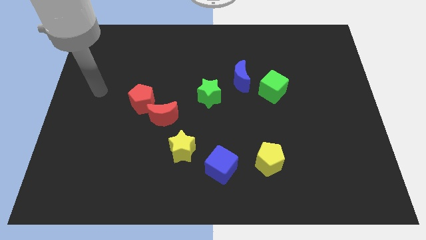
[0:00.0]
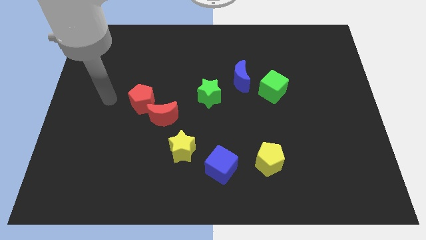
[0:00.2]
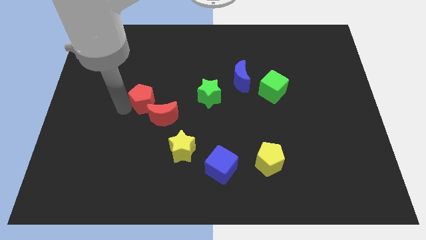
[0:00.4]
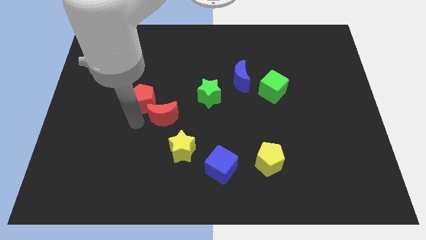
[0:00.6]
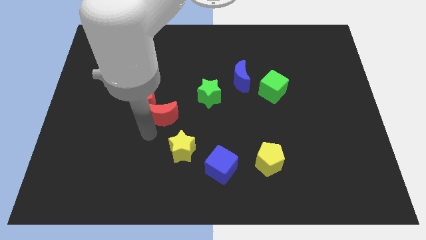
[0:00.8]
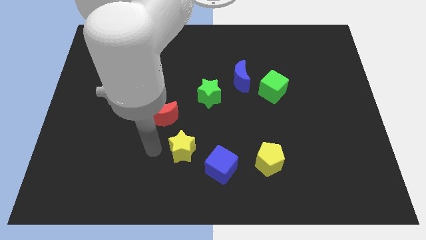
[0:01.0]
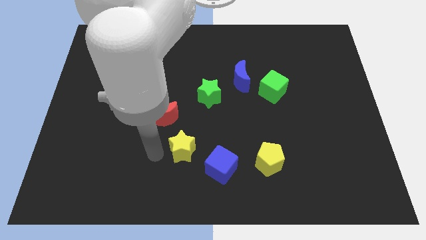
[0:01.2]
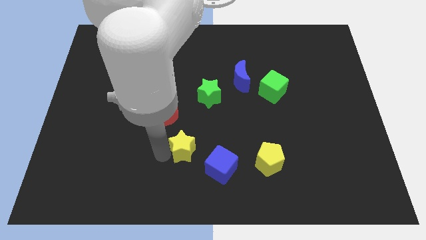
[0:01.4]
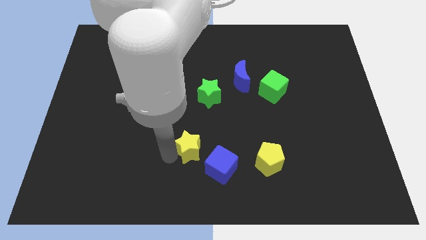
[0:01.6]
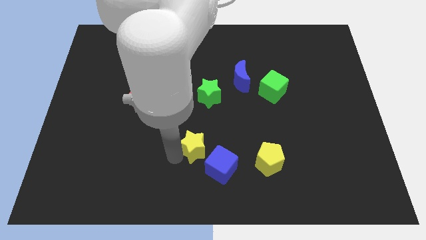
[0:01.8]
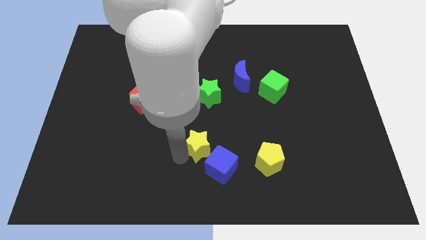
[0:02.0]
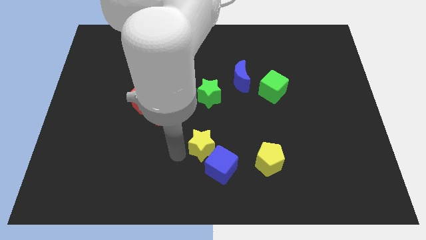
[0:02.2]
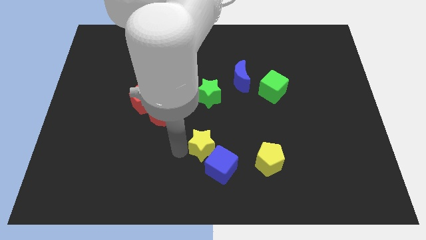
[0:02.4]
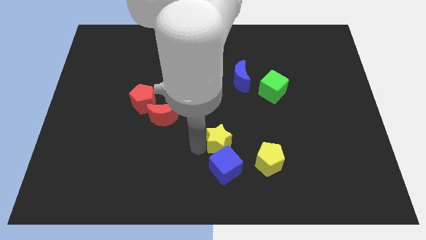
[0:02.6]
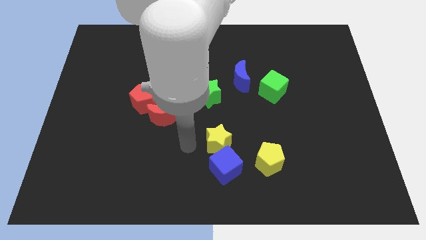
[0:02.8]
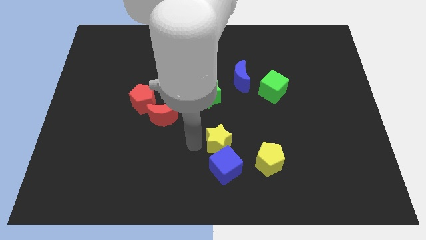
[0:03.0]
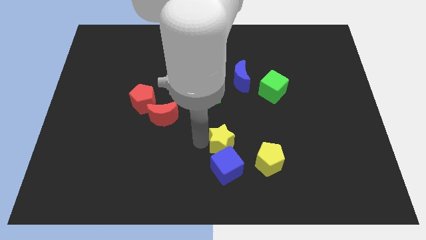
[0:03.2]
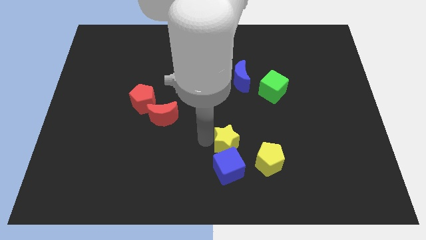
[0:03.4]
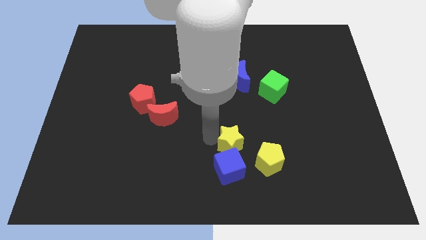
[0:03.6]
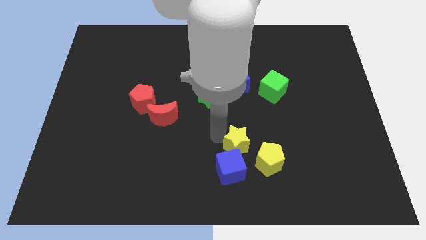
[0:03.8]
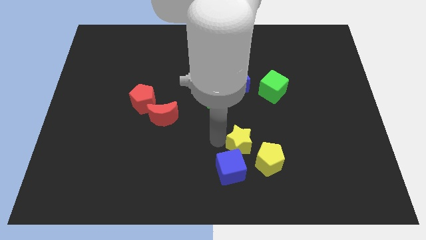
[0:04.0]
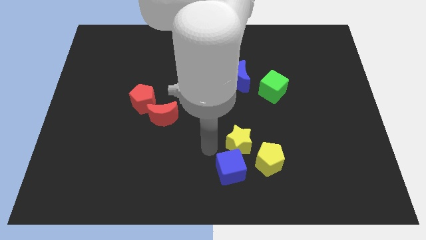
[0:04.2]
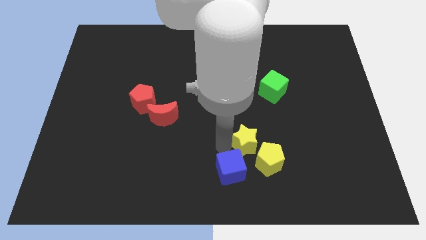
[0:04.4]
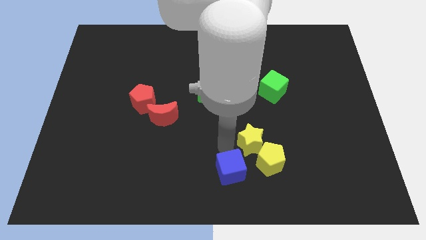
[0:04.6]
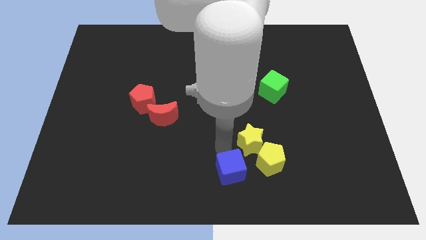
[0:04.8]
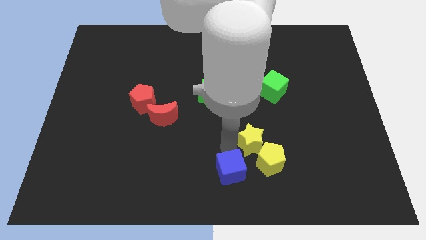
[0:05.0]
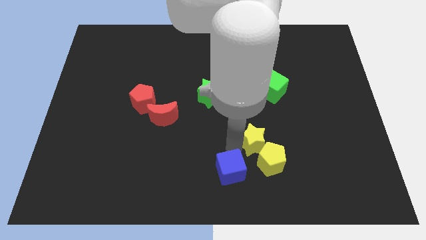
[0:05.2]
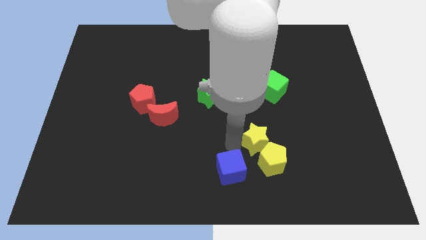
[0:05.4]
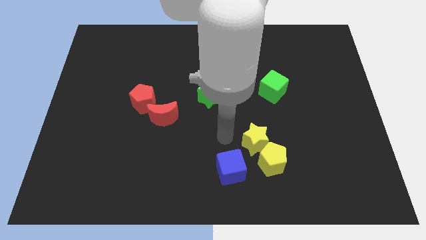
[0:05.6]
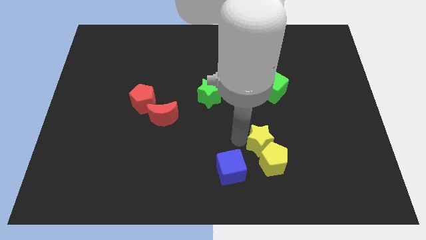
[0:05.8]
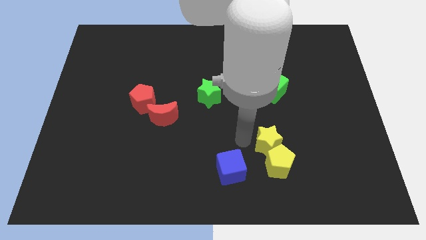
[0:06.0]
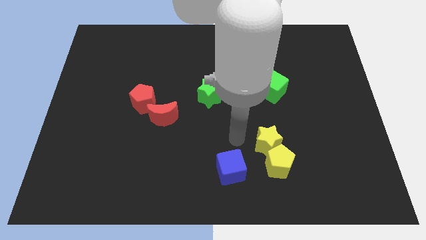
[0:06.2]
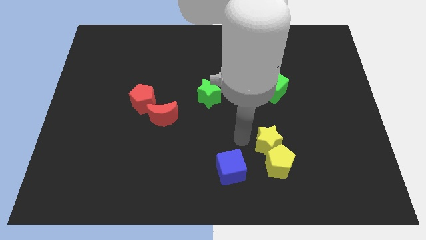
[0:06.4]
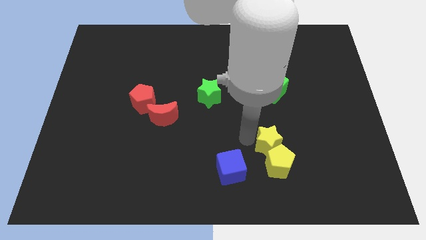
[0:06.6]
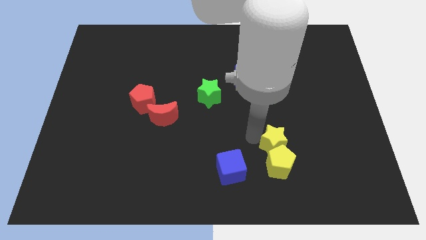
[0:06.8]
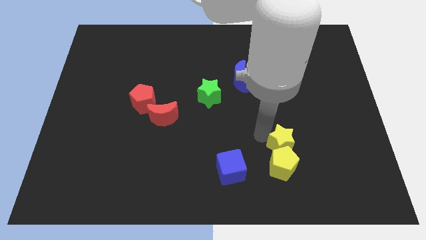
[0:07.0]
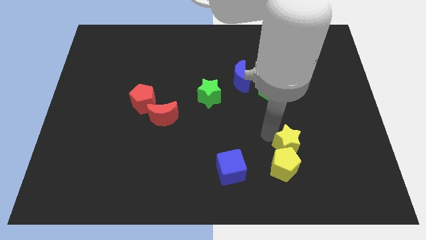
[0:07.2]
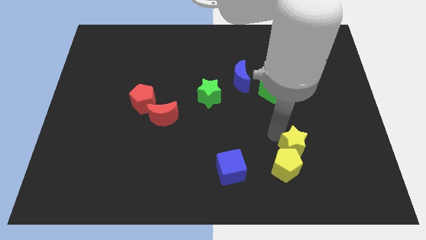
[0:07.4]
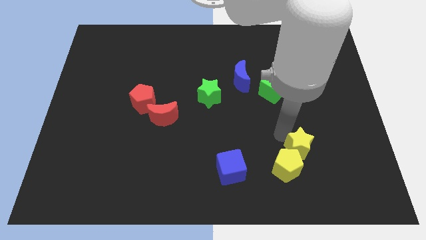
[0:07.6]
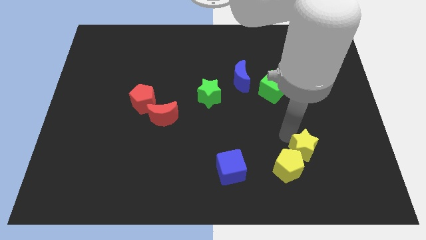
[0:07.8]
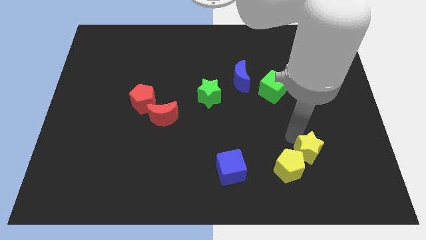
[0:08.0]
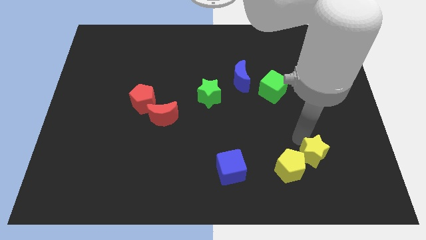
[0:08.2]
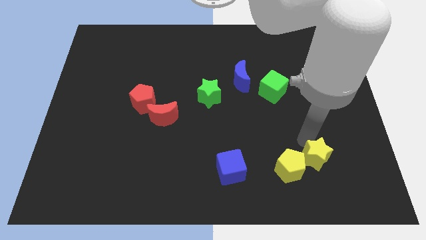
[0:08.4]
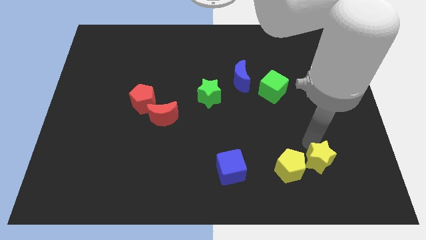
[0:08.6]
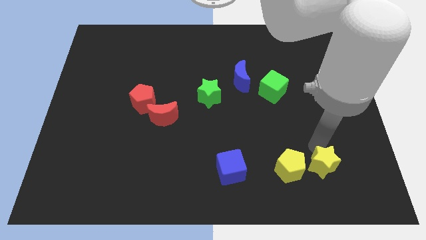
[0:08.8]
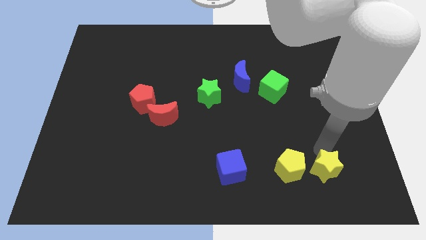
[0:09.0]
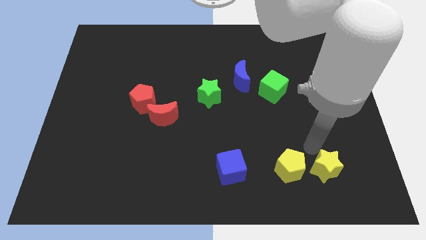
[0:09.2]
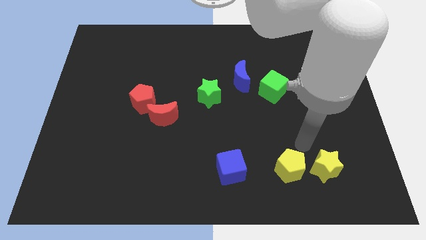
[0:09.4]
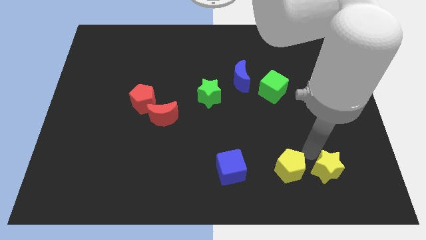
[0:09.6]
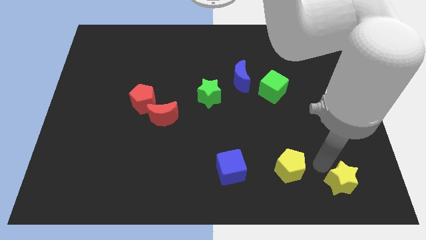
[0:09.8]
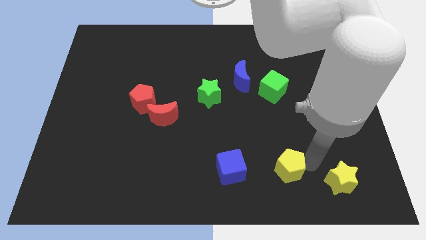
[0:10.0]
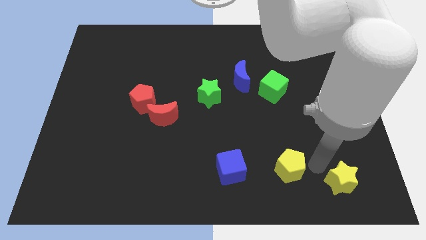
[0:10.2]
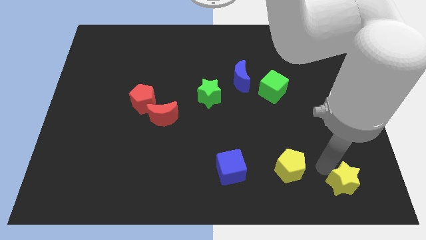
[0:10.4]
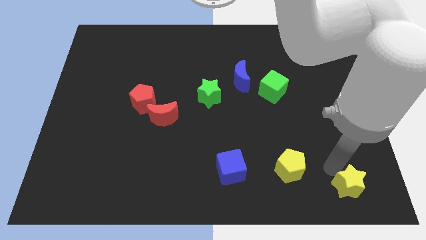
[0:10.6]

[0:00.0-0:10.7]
move the yellow star to the bottom right corner

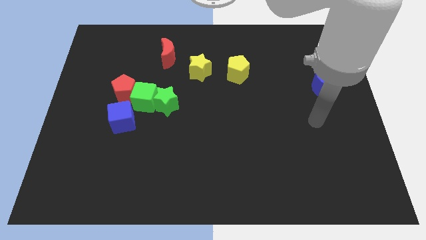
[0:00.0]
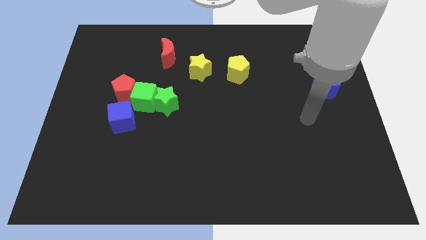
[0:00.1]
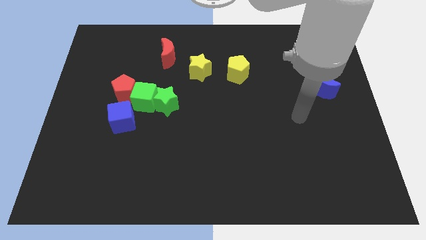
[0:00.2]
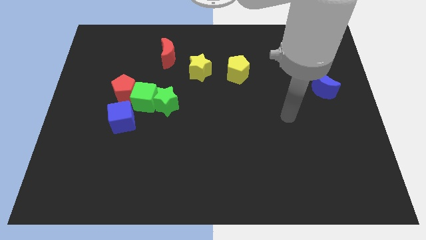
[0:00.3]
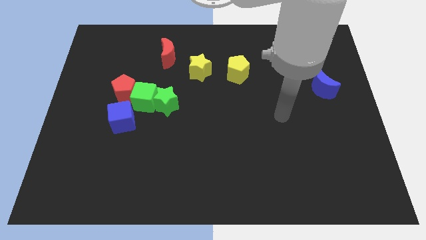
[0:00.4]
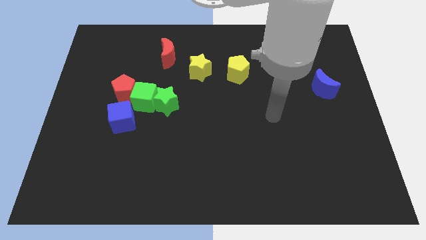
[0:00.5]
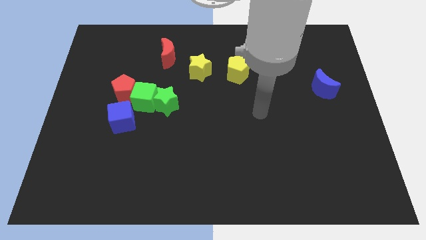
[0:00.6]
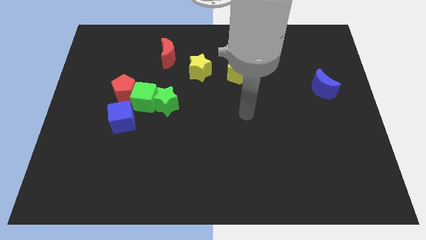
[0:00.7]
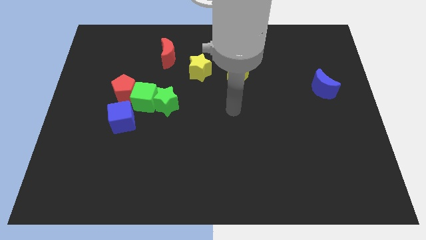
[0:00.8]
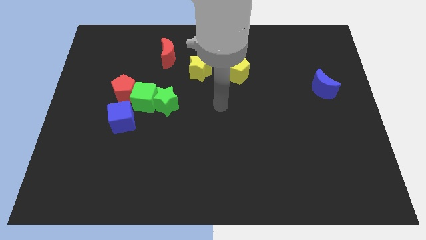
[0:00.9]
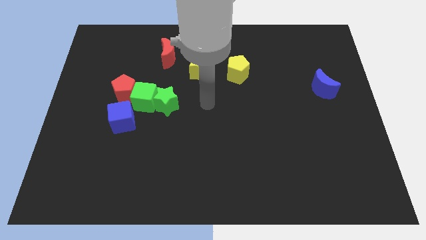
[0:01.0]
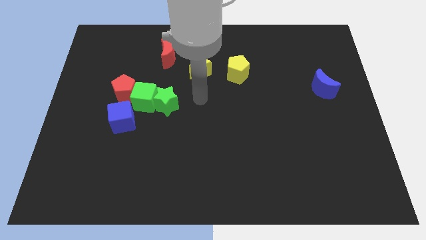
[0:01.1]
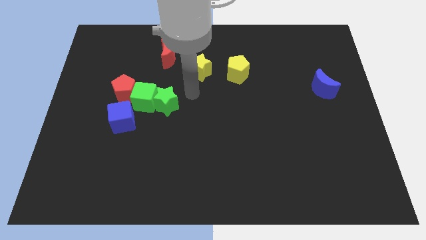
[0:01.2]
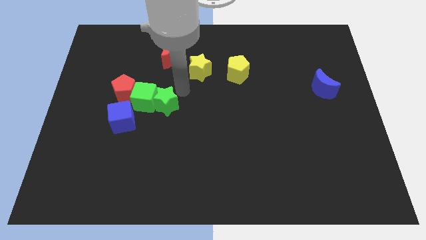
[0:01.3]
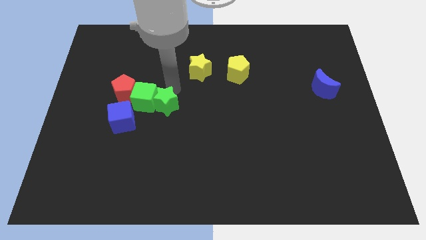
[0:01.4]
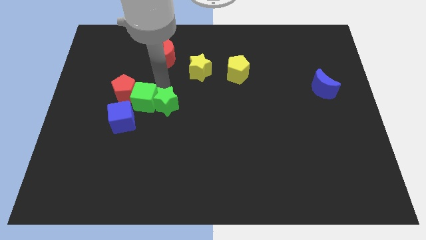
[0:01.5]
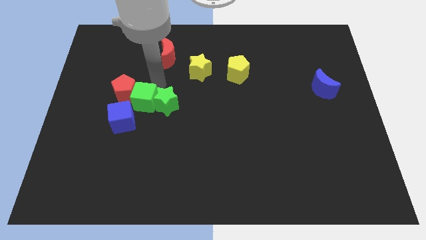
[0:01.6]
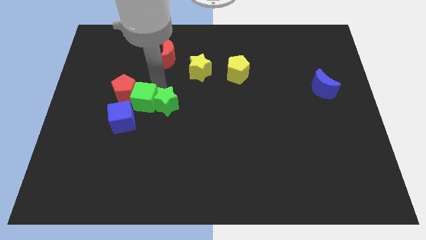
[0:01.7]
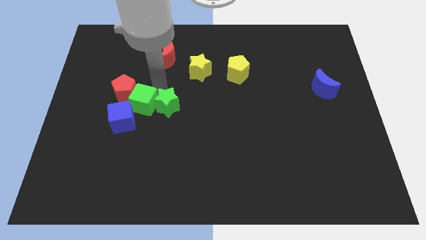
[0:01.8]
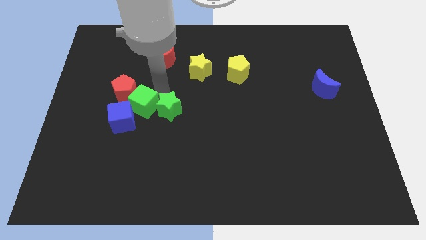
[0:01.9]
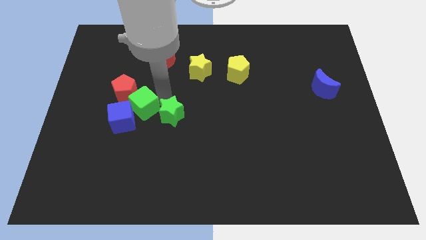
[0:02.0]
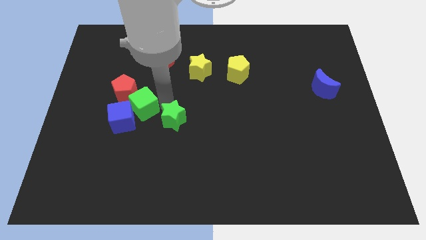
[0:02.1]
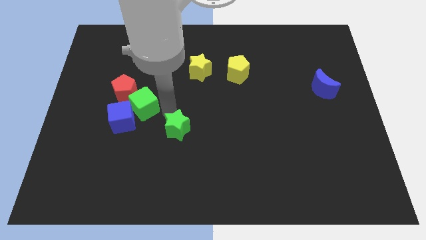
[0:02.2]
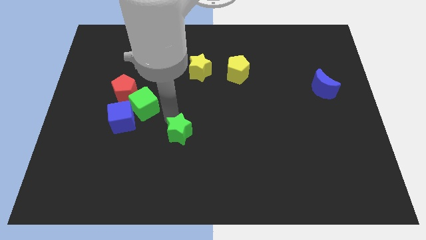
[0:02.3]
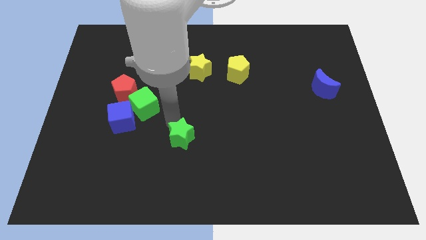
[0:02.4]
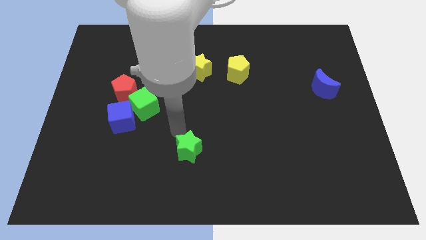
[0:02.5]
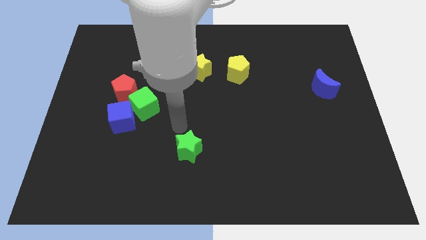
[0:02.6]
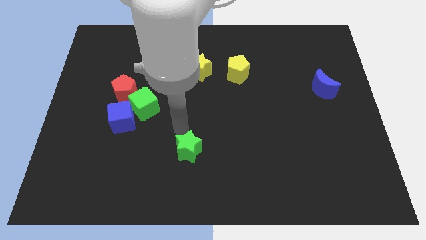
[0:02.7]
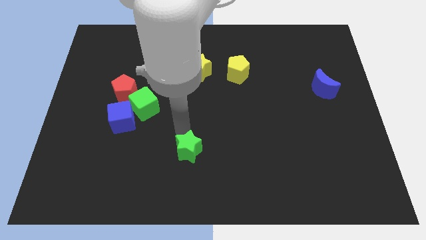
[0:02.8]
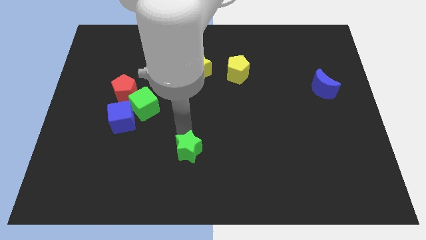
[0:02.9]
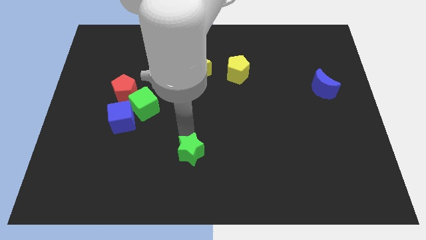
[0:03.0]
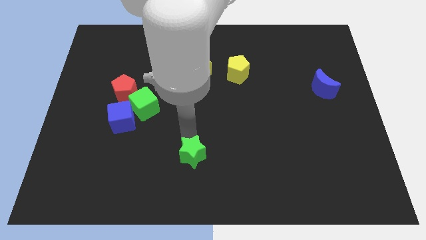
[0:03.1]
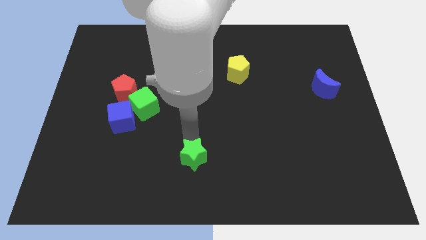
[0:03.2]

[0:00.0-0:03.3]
slide the green star to the bottom side
